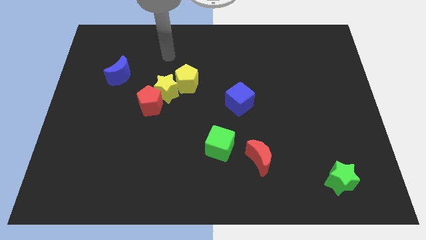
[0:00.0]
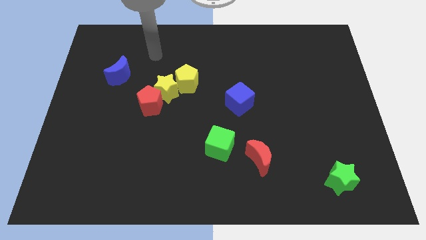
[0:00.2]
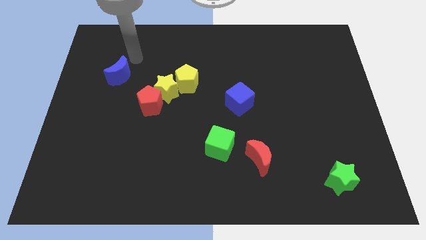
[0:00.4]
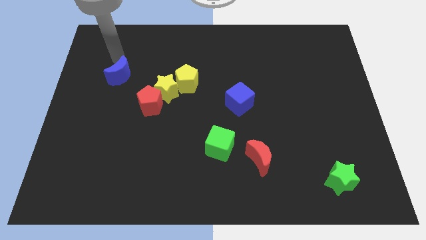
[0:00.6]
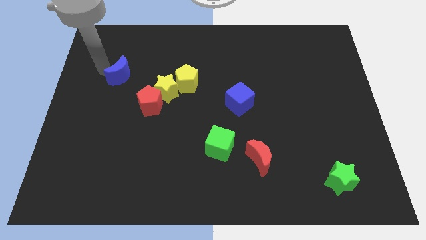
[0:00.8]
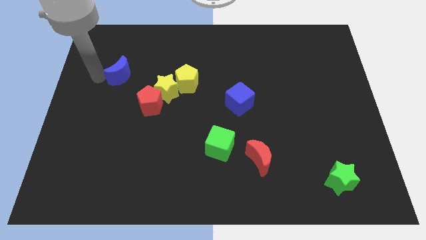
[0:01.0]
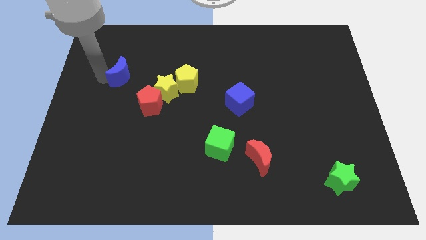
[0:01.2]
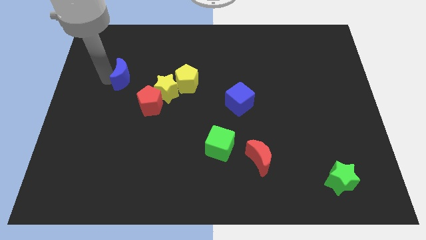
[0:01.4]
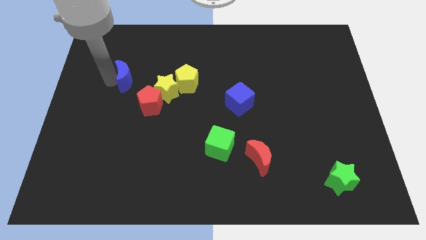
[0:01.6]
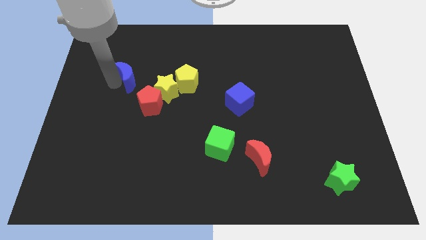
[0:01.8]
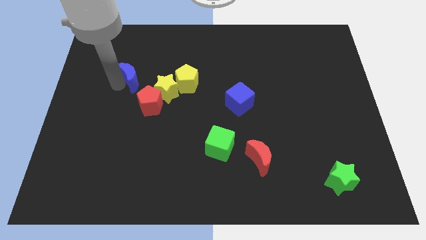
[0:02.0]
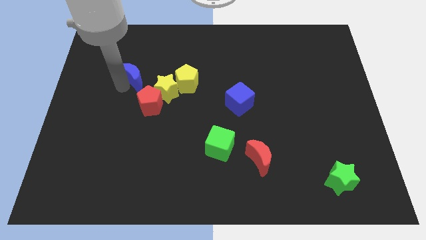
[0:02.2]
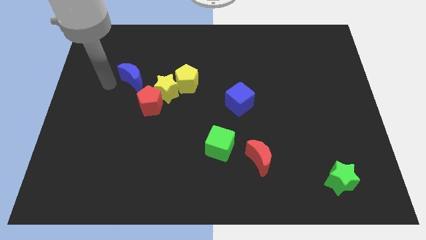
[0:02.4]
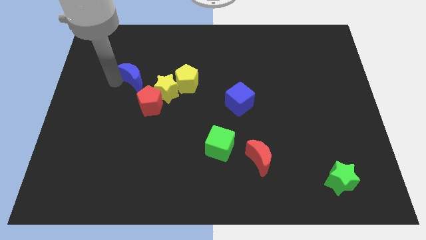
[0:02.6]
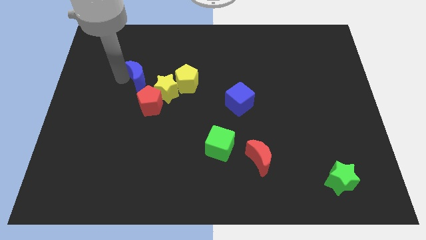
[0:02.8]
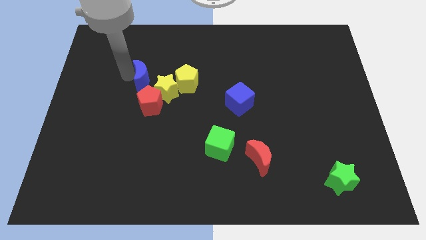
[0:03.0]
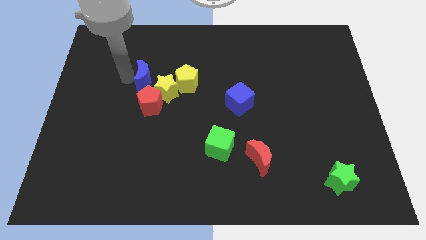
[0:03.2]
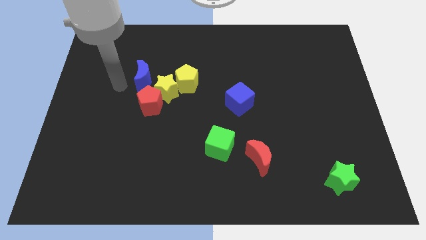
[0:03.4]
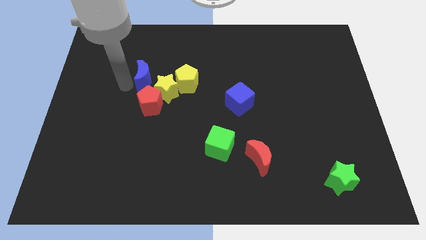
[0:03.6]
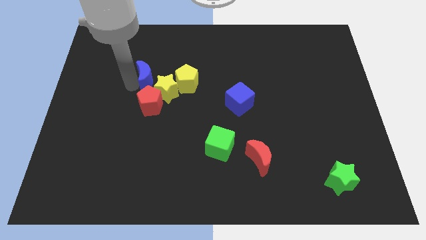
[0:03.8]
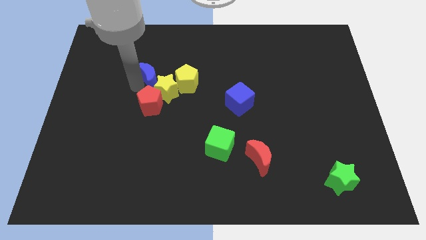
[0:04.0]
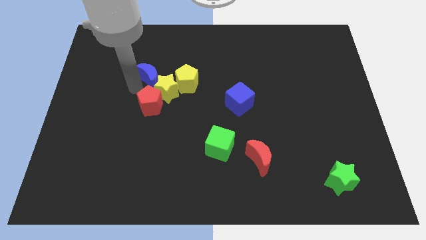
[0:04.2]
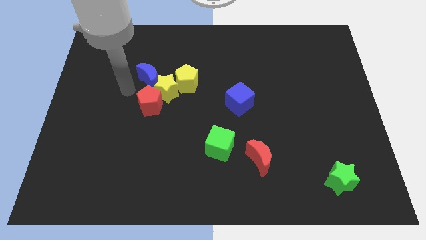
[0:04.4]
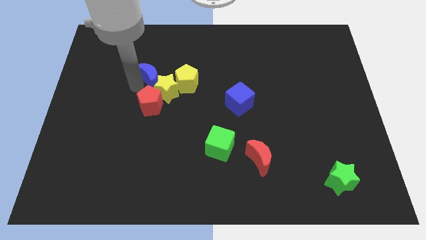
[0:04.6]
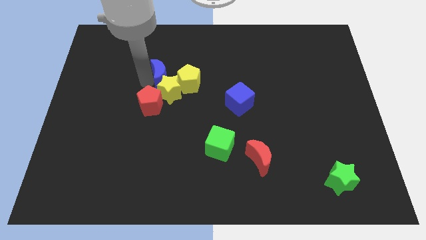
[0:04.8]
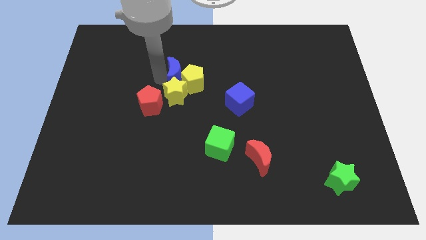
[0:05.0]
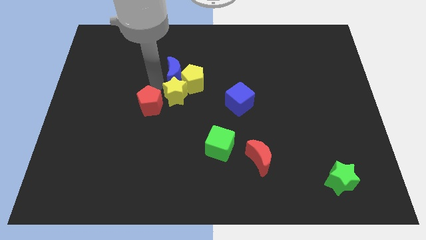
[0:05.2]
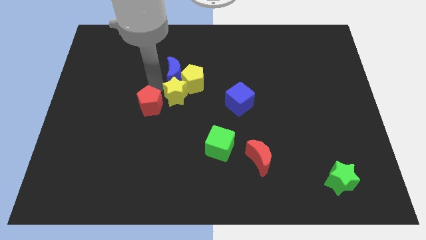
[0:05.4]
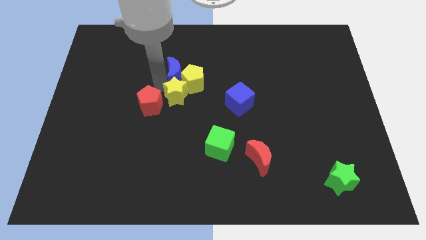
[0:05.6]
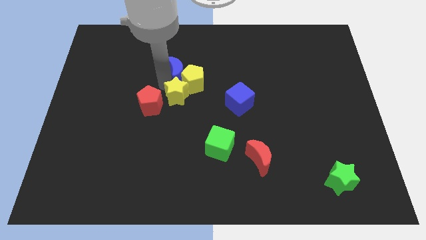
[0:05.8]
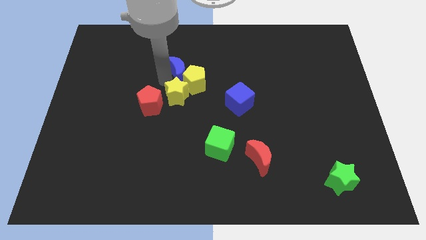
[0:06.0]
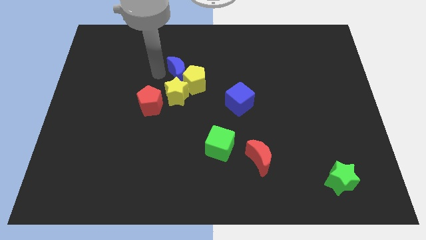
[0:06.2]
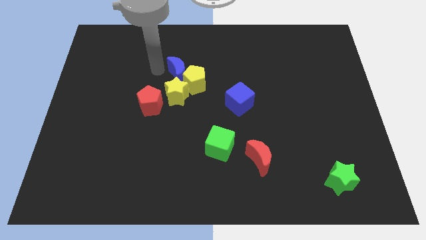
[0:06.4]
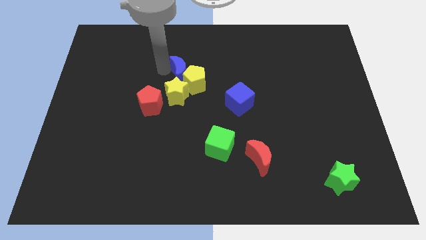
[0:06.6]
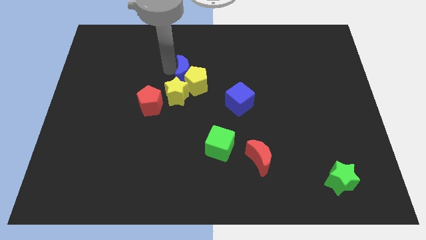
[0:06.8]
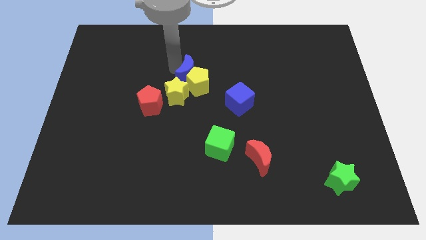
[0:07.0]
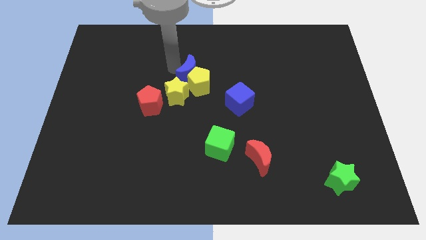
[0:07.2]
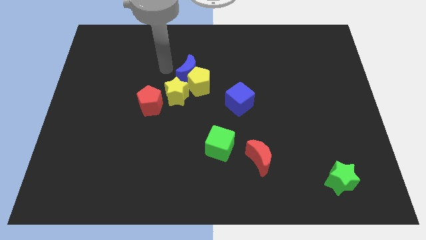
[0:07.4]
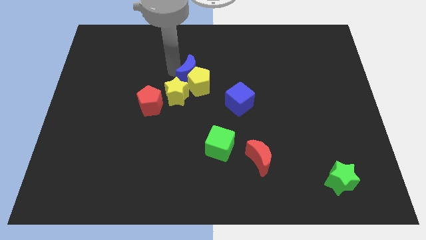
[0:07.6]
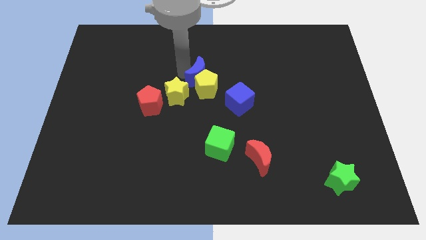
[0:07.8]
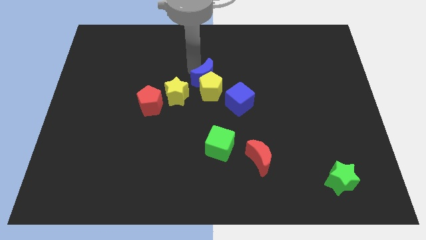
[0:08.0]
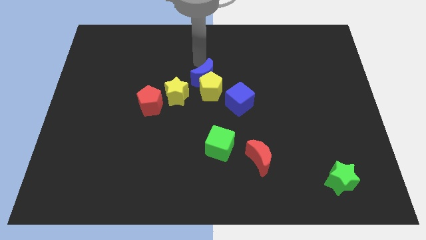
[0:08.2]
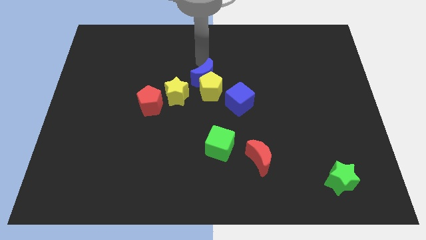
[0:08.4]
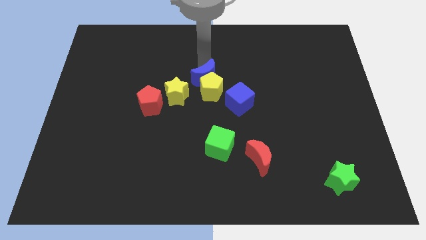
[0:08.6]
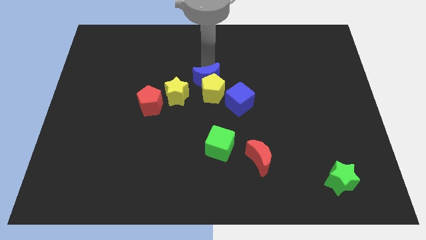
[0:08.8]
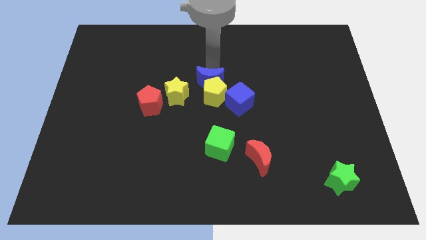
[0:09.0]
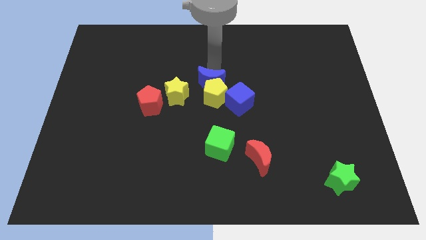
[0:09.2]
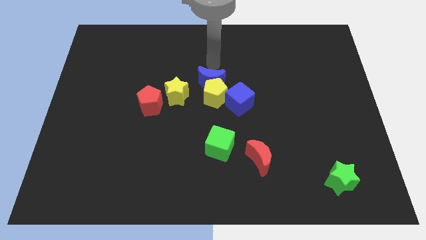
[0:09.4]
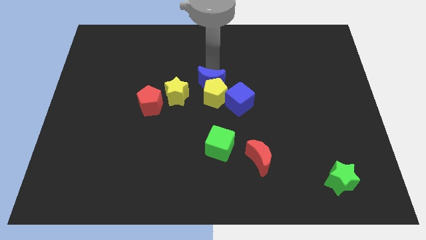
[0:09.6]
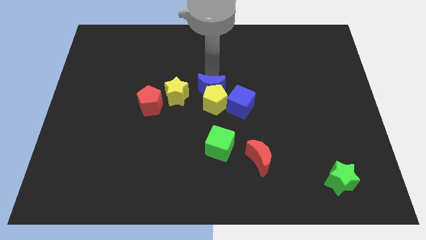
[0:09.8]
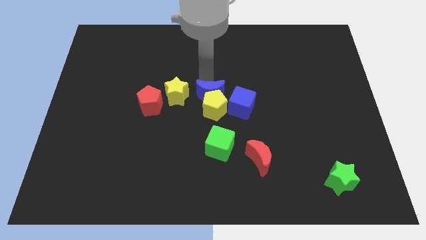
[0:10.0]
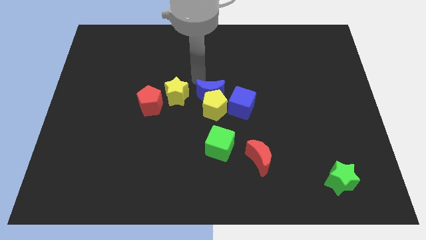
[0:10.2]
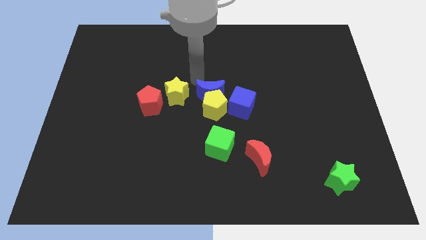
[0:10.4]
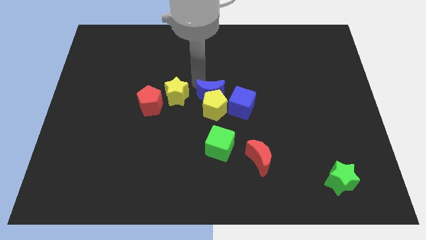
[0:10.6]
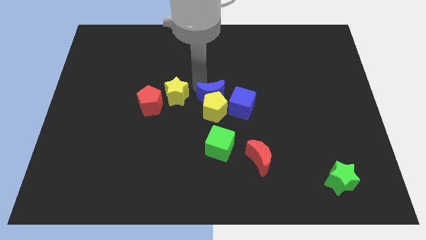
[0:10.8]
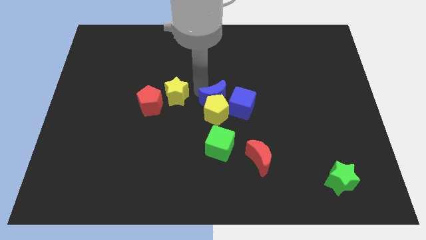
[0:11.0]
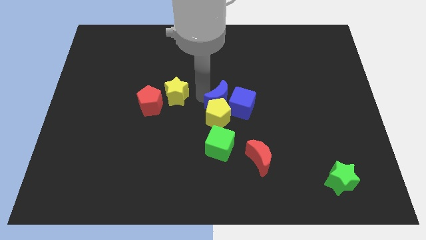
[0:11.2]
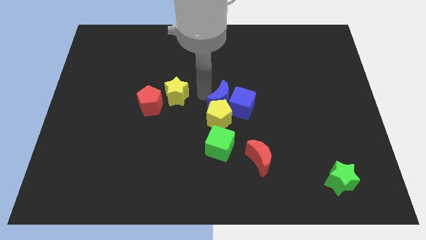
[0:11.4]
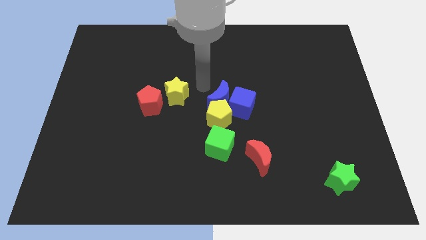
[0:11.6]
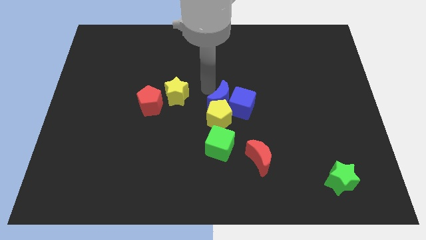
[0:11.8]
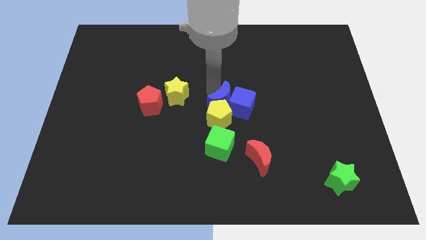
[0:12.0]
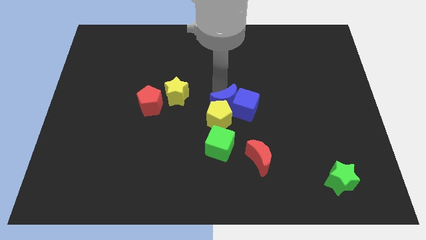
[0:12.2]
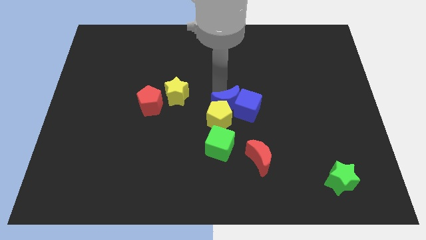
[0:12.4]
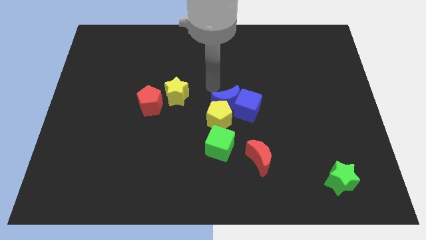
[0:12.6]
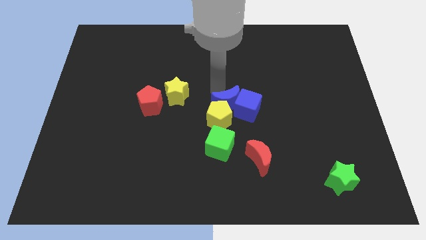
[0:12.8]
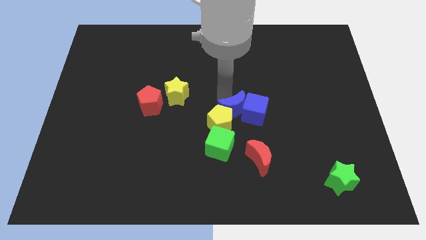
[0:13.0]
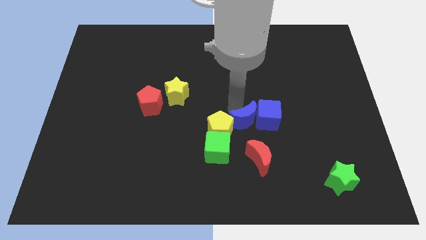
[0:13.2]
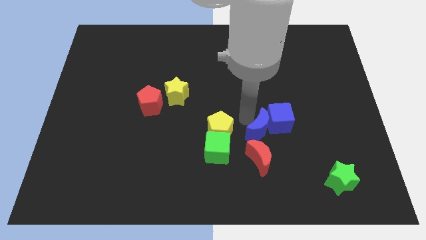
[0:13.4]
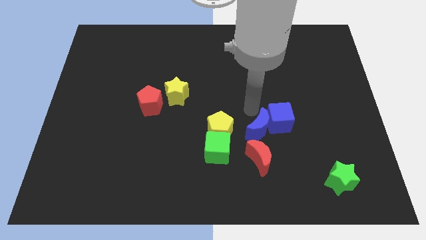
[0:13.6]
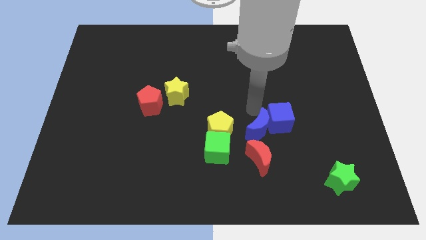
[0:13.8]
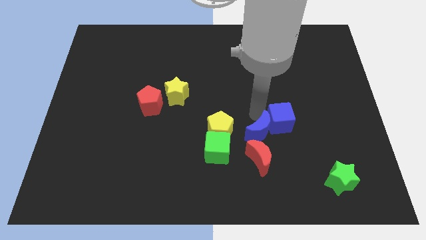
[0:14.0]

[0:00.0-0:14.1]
slide the blue moon right of the green cube
